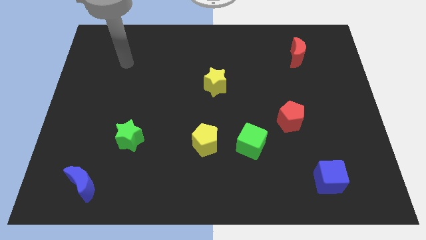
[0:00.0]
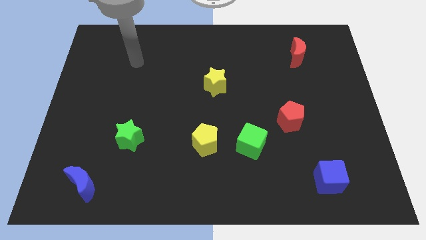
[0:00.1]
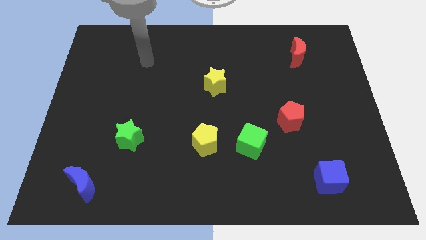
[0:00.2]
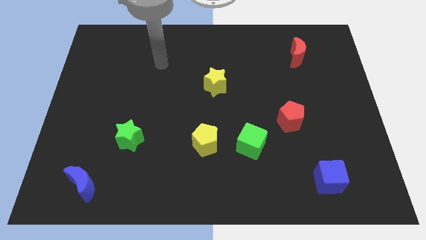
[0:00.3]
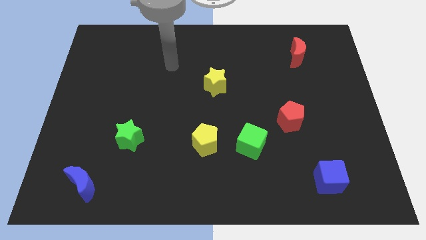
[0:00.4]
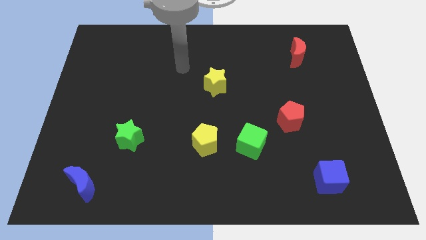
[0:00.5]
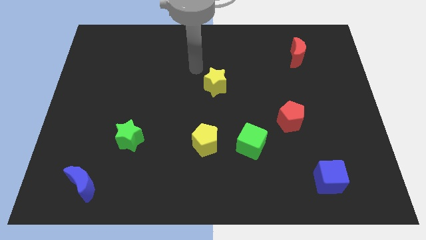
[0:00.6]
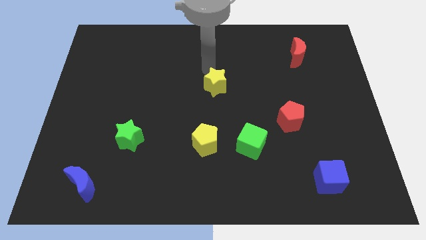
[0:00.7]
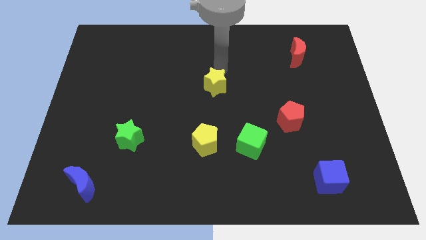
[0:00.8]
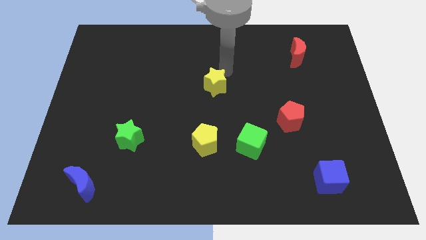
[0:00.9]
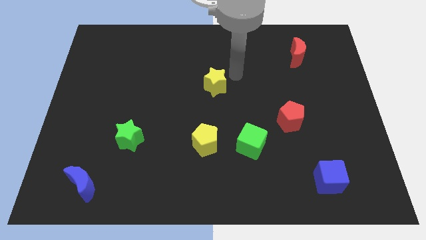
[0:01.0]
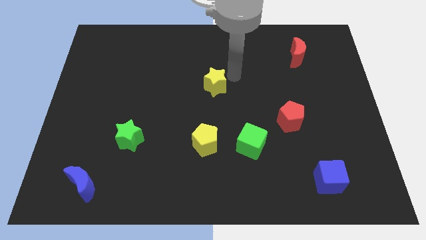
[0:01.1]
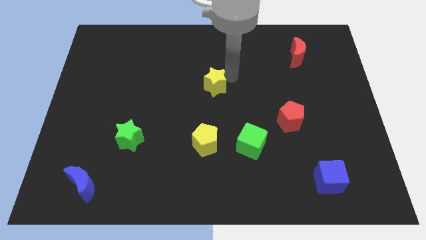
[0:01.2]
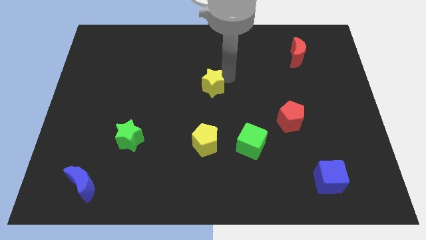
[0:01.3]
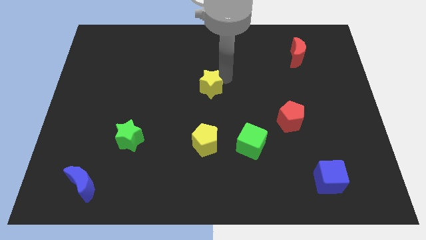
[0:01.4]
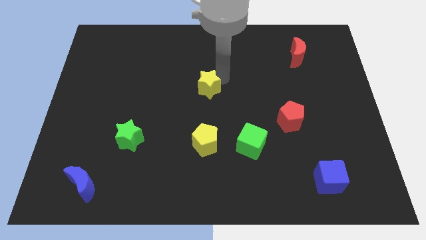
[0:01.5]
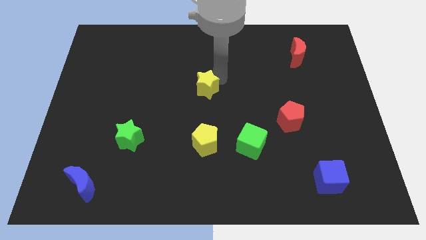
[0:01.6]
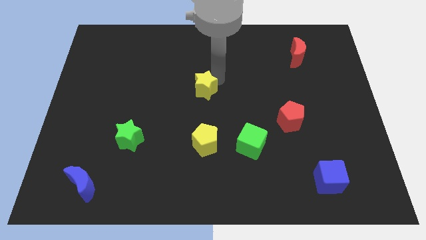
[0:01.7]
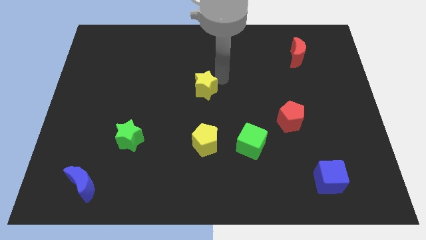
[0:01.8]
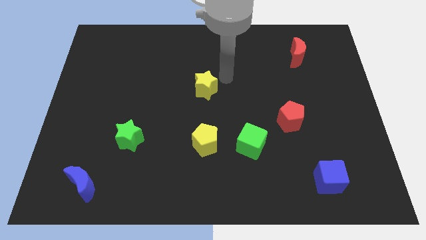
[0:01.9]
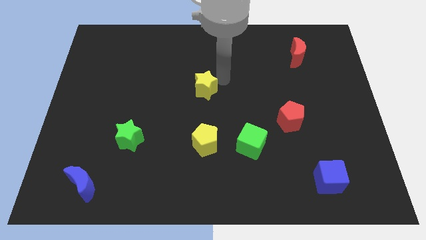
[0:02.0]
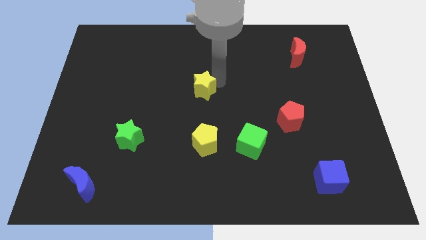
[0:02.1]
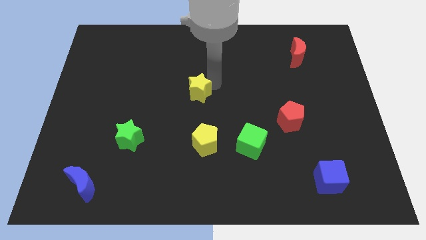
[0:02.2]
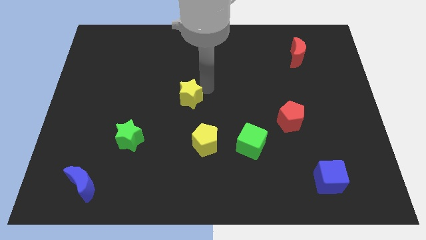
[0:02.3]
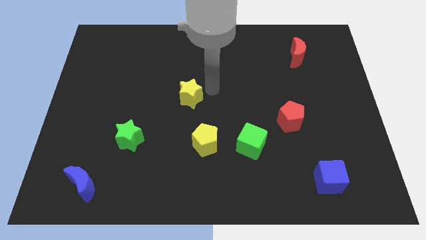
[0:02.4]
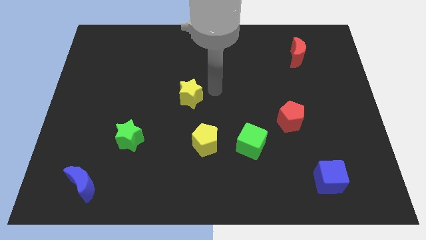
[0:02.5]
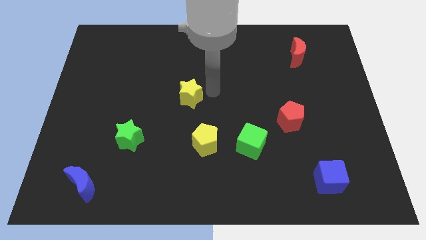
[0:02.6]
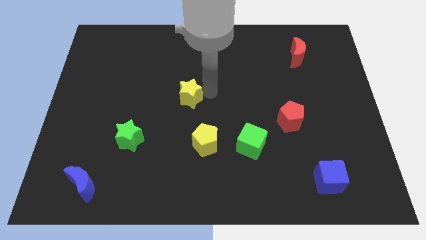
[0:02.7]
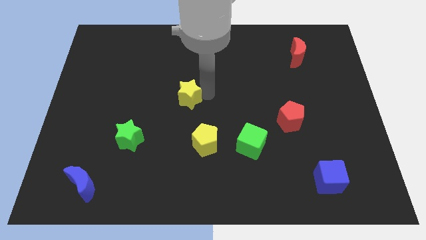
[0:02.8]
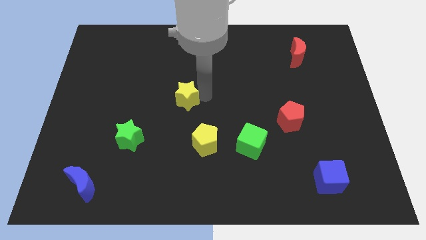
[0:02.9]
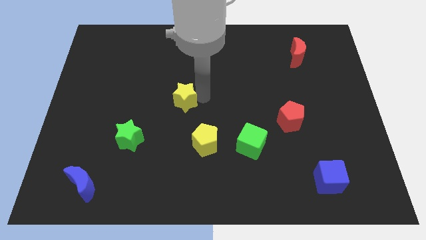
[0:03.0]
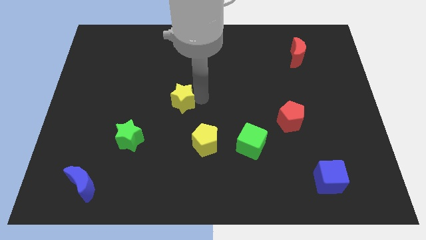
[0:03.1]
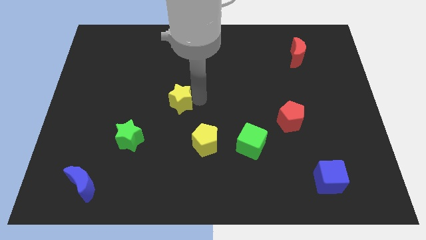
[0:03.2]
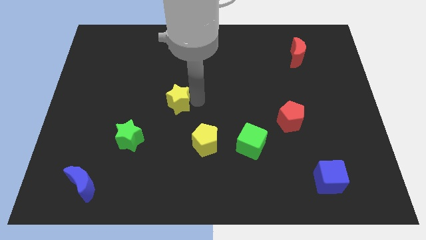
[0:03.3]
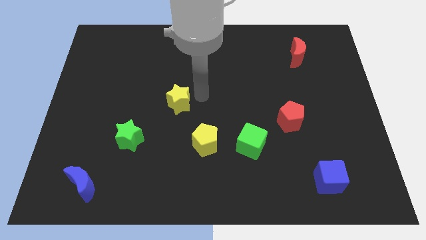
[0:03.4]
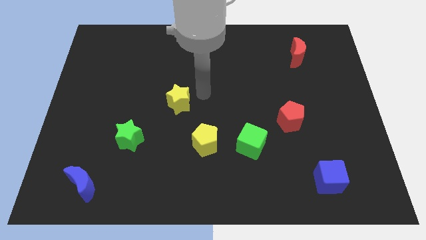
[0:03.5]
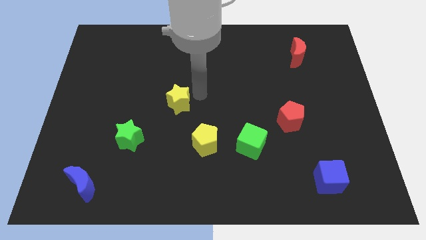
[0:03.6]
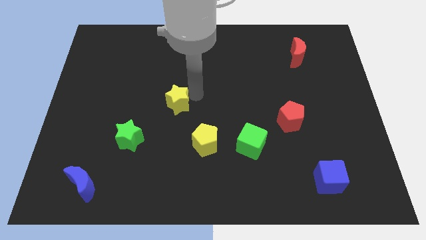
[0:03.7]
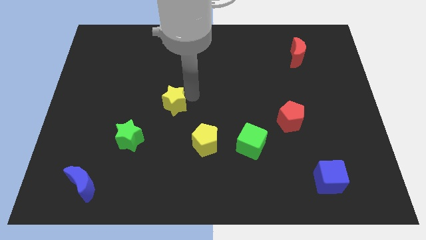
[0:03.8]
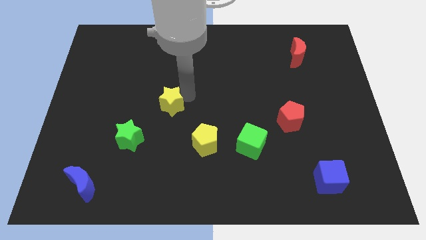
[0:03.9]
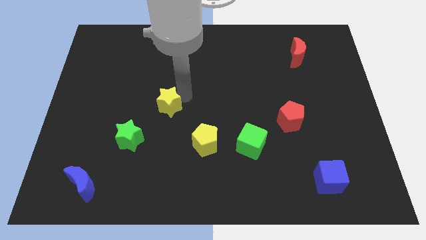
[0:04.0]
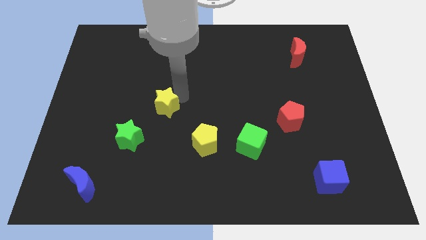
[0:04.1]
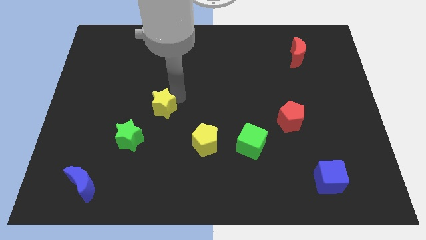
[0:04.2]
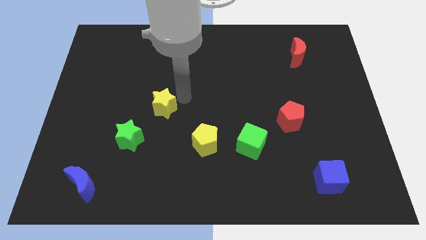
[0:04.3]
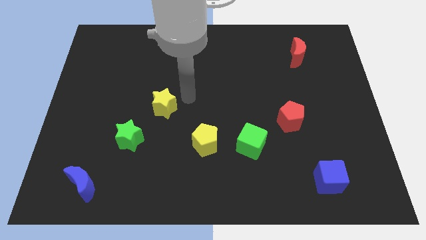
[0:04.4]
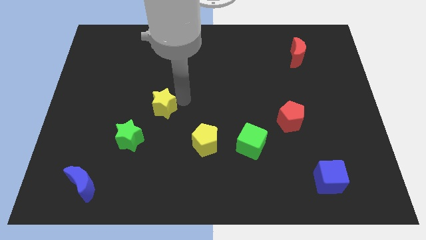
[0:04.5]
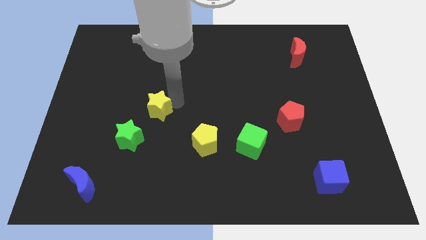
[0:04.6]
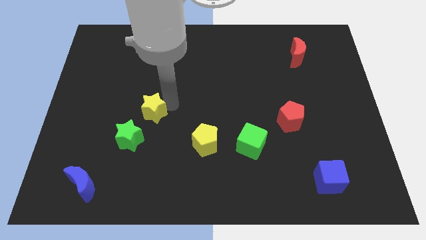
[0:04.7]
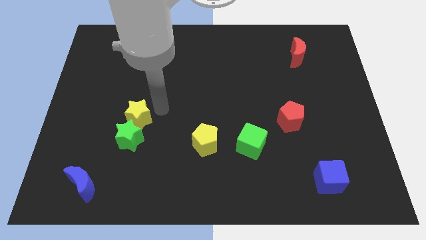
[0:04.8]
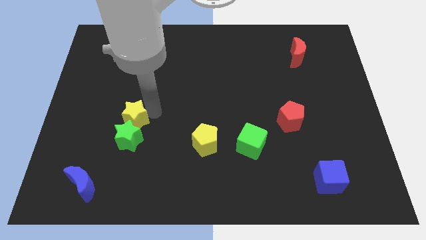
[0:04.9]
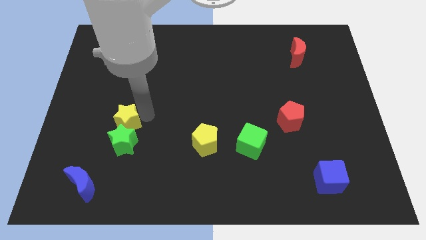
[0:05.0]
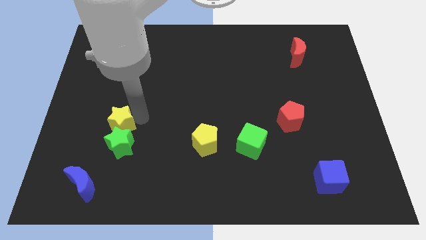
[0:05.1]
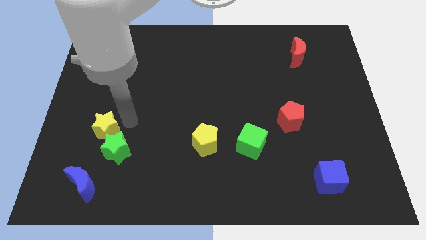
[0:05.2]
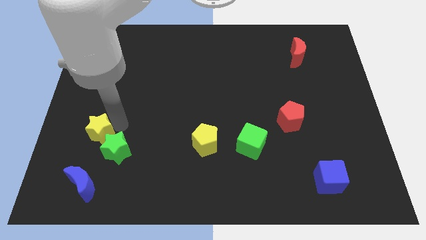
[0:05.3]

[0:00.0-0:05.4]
slide the yellow star to the left side of the green star

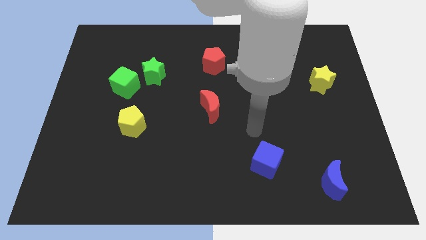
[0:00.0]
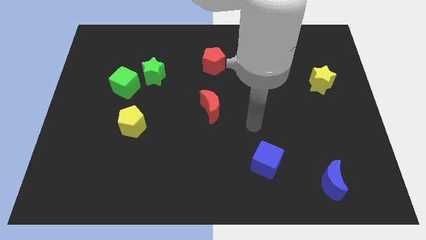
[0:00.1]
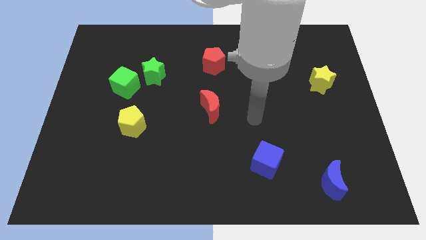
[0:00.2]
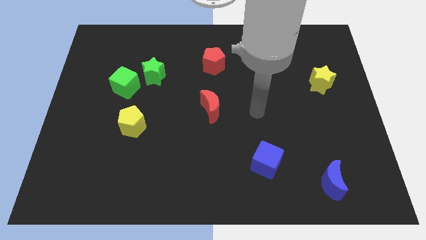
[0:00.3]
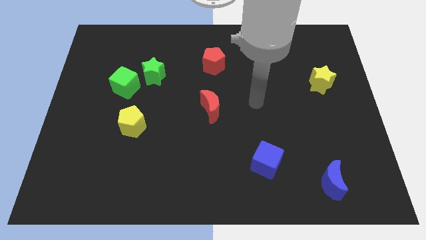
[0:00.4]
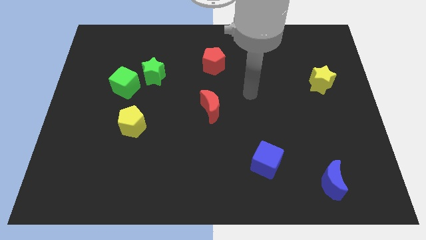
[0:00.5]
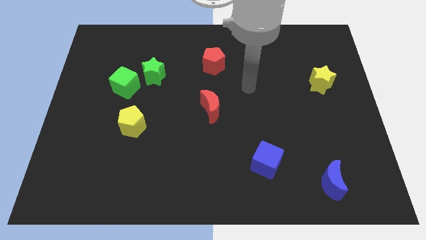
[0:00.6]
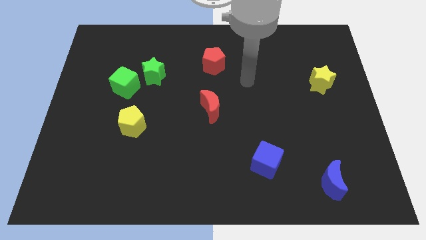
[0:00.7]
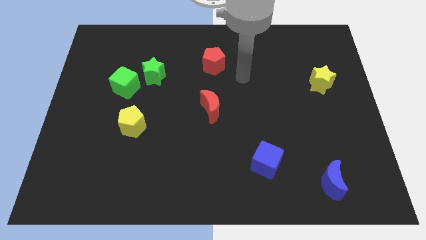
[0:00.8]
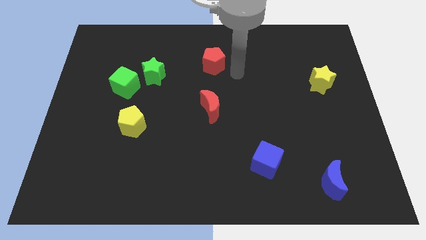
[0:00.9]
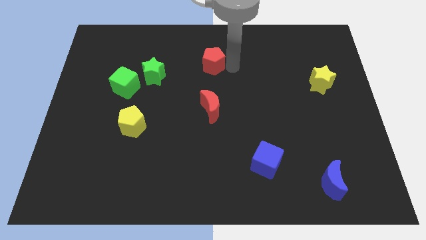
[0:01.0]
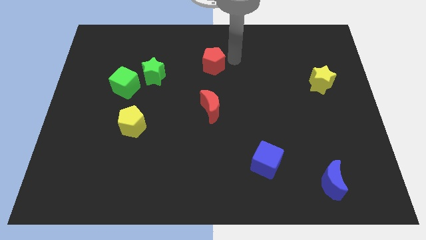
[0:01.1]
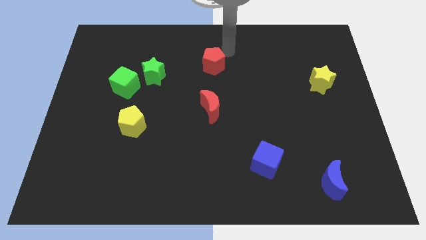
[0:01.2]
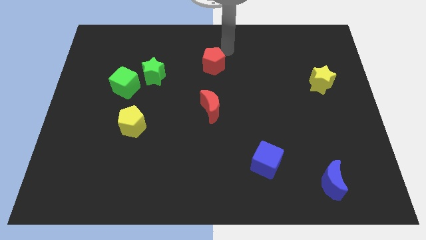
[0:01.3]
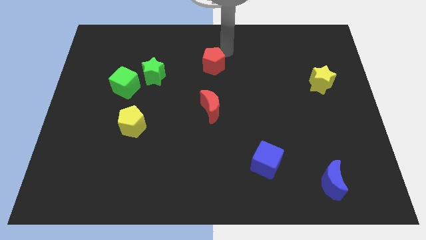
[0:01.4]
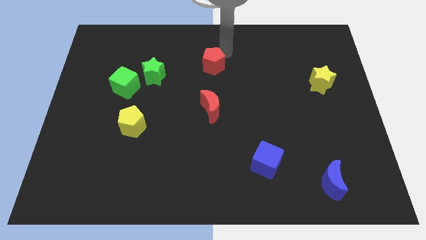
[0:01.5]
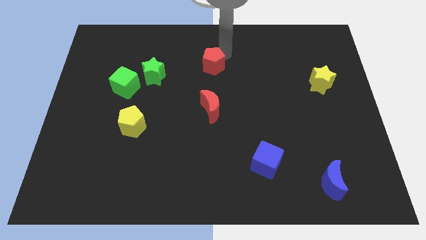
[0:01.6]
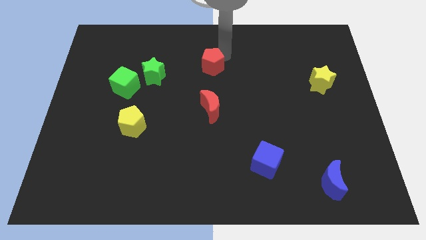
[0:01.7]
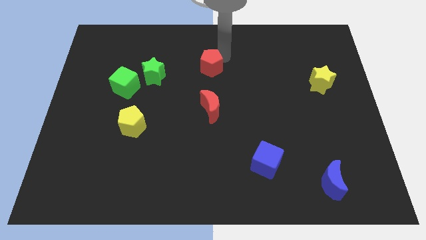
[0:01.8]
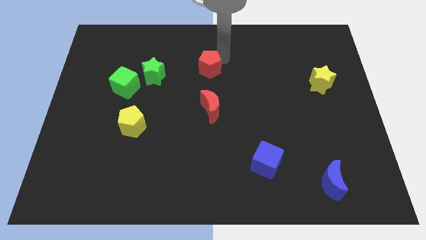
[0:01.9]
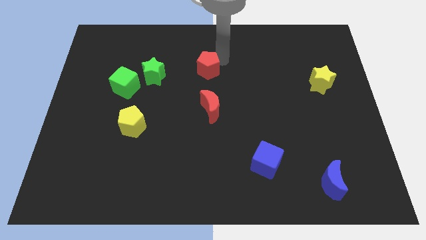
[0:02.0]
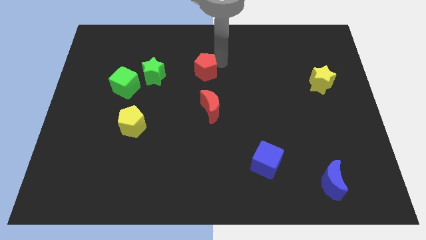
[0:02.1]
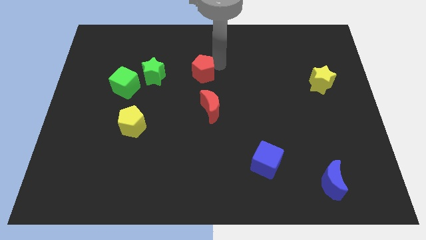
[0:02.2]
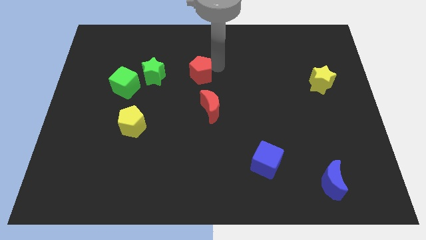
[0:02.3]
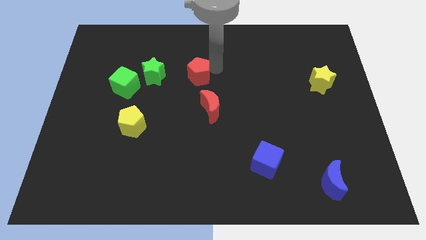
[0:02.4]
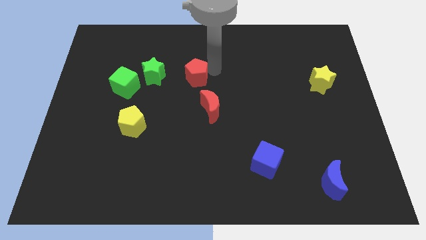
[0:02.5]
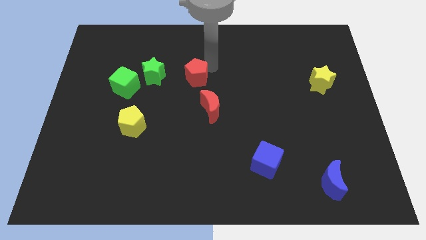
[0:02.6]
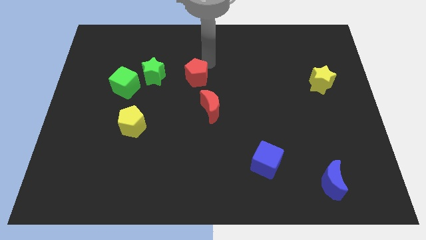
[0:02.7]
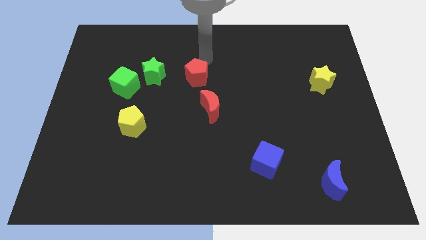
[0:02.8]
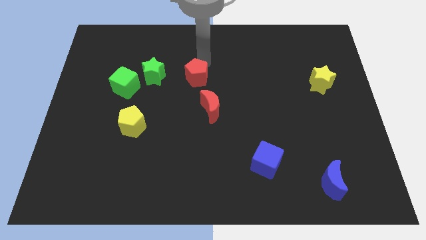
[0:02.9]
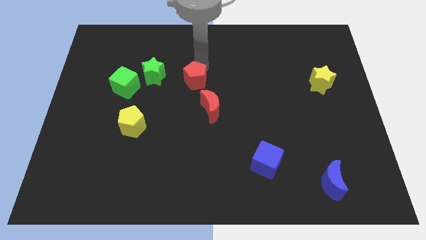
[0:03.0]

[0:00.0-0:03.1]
slide the red pentagon to the top left of the red moon
